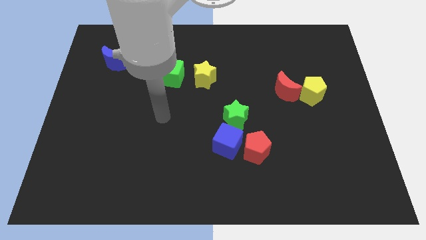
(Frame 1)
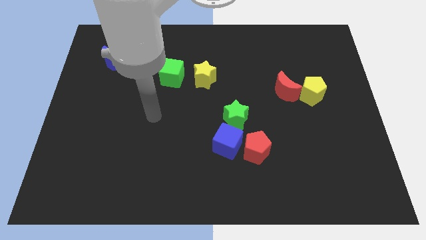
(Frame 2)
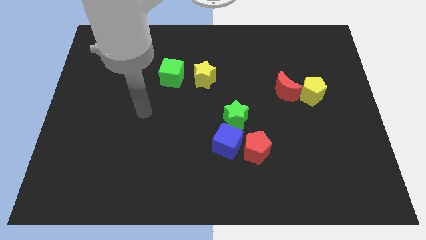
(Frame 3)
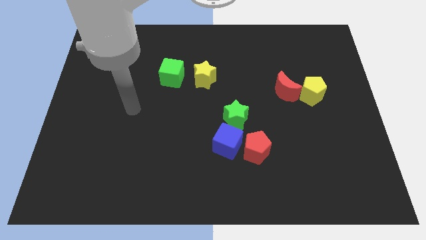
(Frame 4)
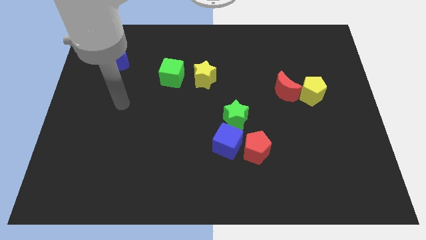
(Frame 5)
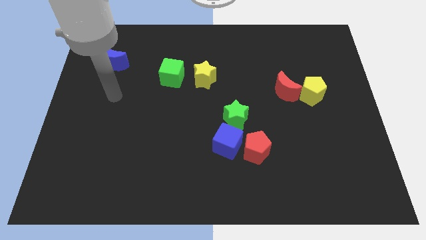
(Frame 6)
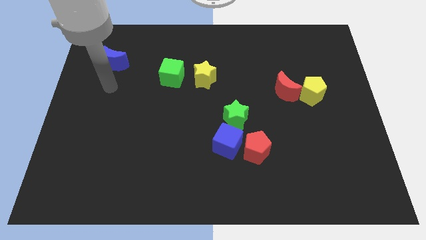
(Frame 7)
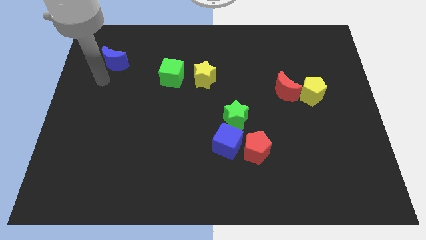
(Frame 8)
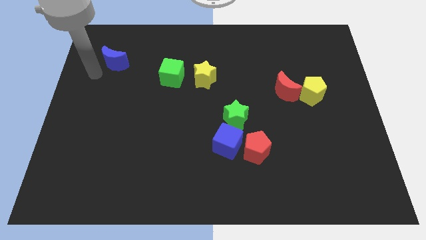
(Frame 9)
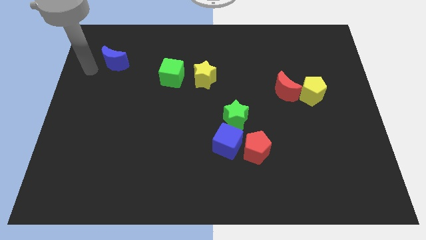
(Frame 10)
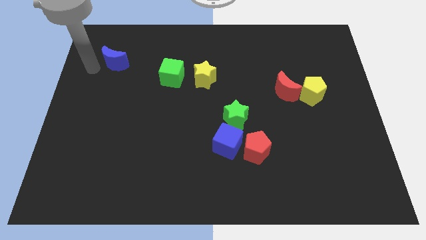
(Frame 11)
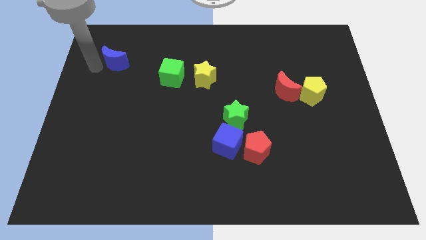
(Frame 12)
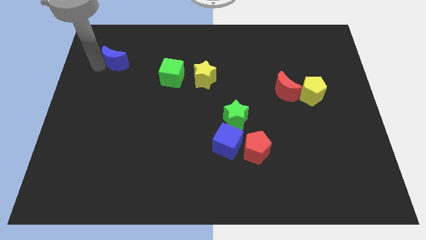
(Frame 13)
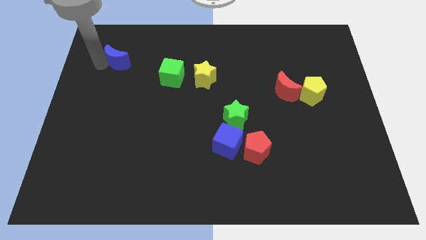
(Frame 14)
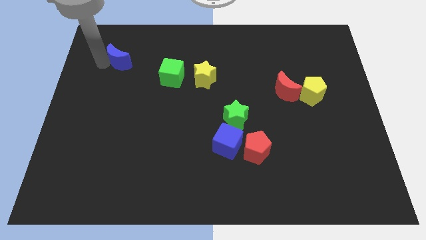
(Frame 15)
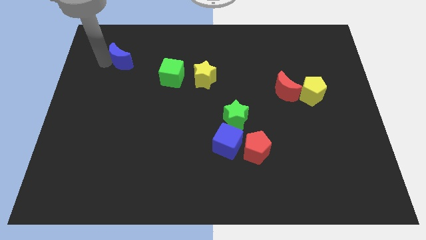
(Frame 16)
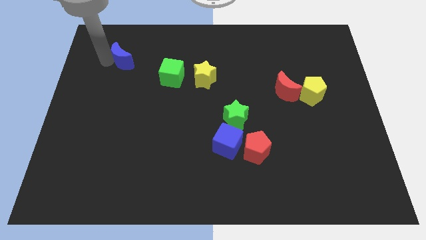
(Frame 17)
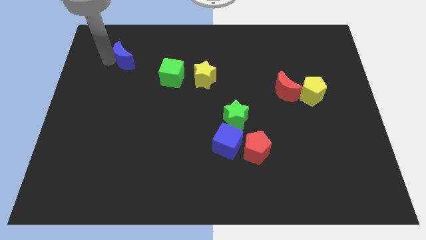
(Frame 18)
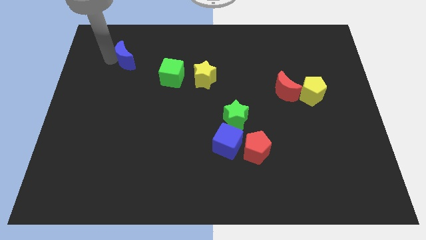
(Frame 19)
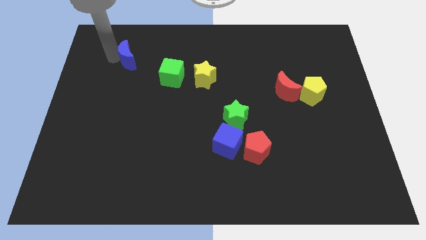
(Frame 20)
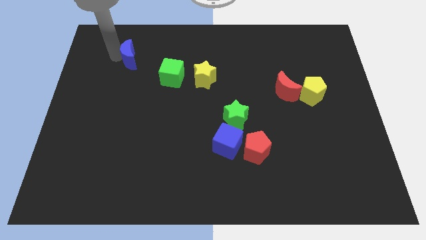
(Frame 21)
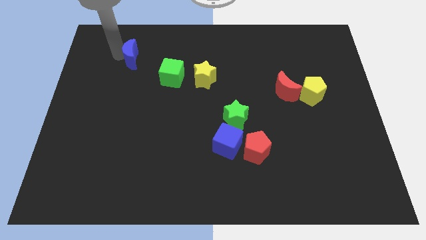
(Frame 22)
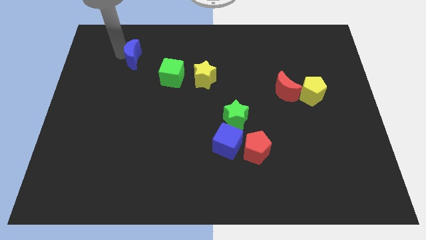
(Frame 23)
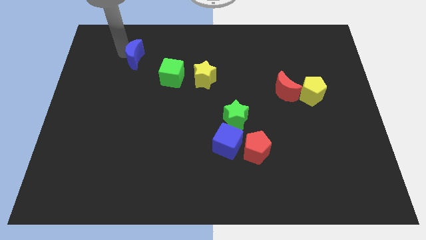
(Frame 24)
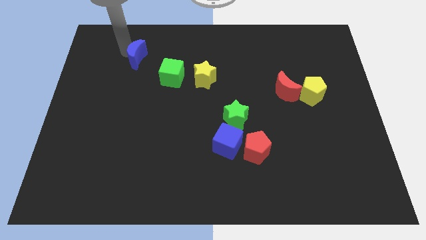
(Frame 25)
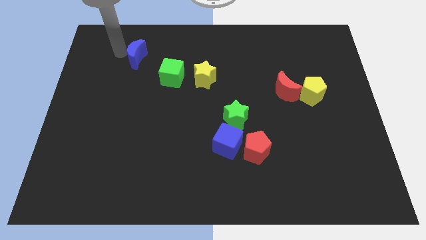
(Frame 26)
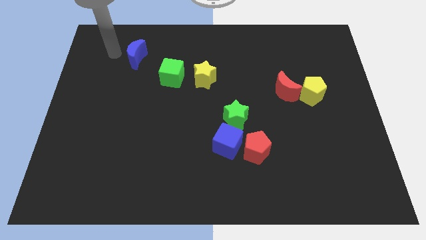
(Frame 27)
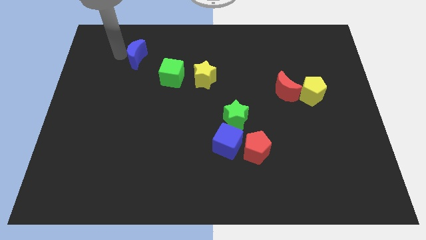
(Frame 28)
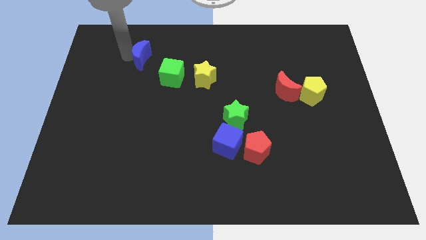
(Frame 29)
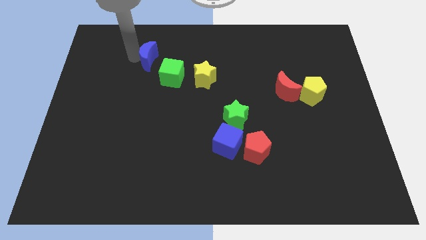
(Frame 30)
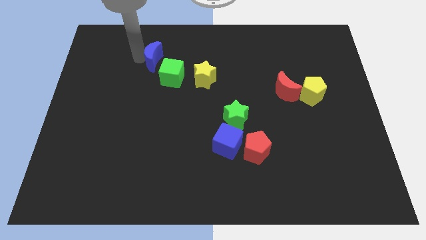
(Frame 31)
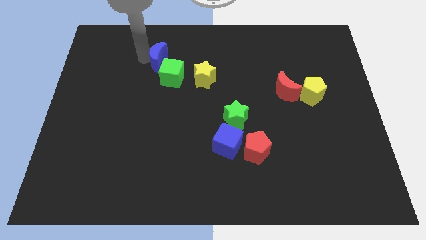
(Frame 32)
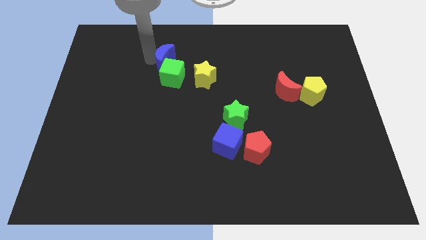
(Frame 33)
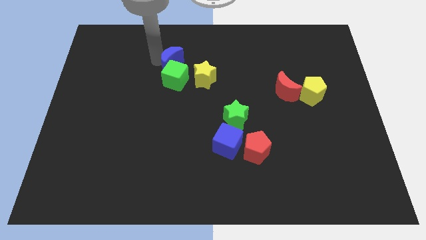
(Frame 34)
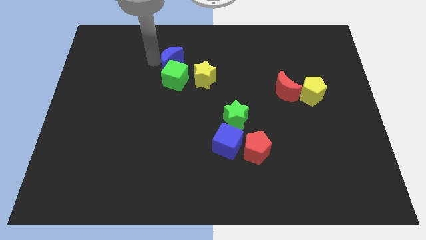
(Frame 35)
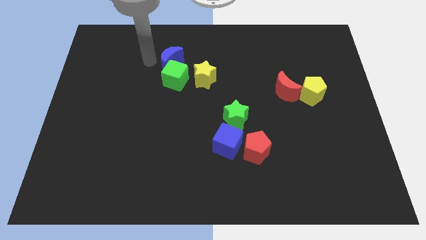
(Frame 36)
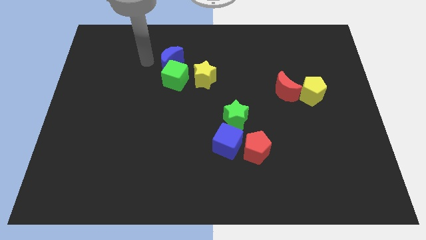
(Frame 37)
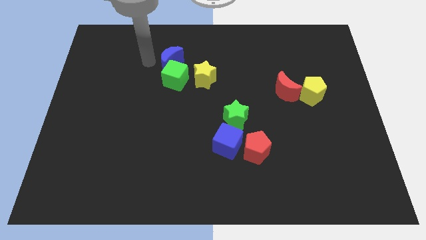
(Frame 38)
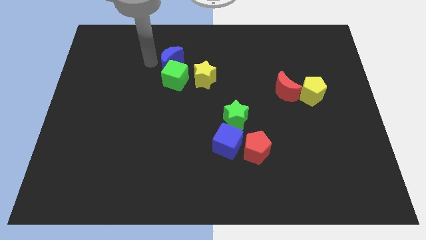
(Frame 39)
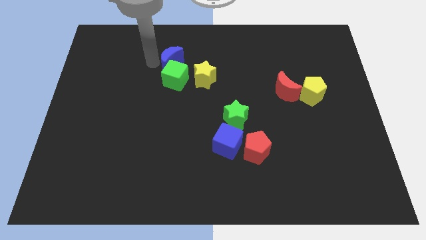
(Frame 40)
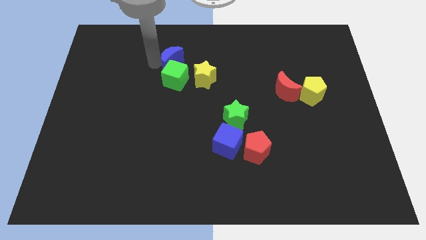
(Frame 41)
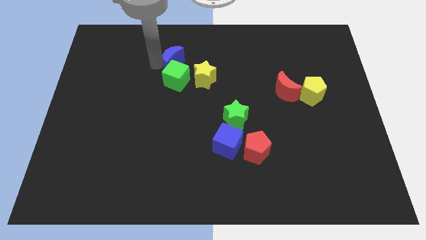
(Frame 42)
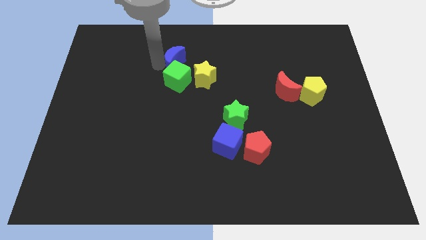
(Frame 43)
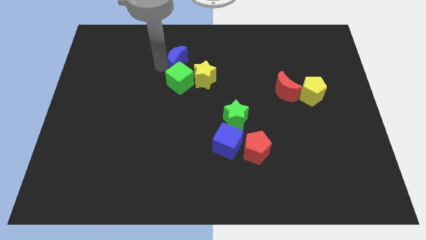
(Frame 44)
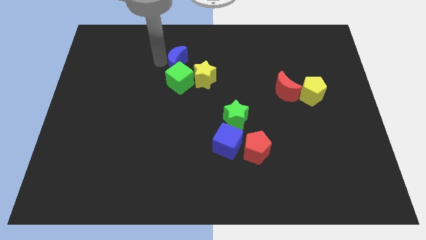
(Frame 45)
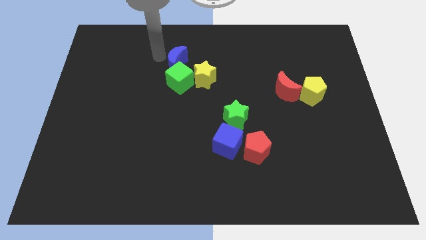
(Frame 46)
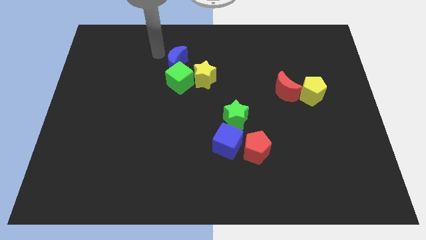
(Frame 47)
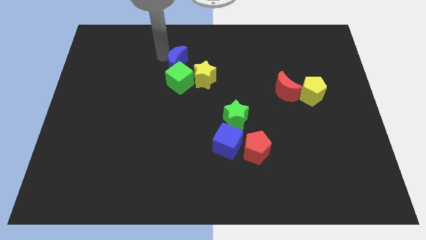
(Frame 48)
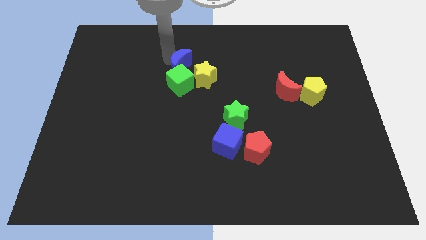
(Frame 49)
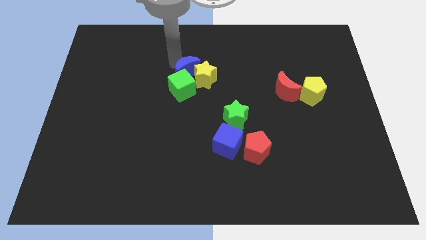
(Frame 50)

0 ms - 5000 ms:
put the blue moon close to the yellow star

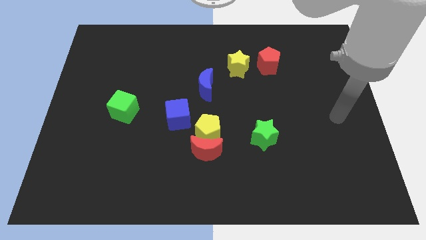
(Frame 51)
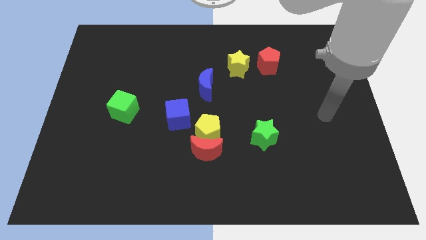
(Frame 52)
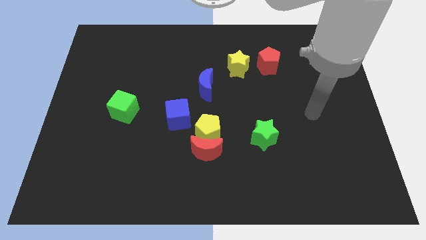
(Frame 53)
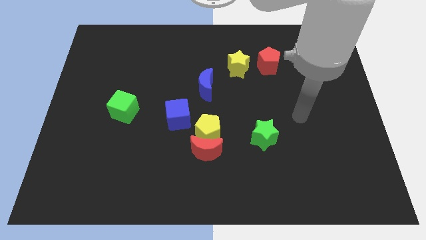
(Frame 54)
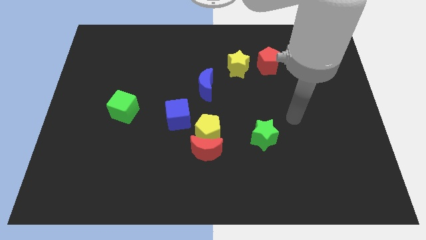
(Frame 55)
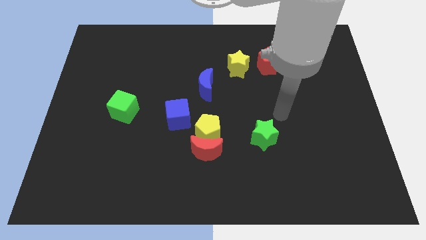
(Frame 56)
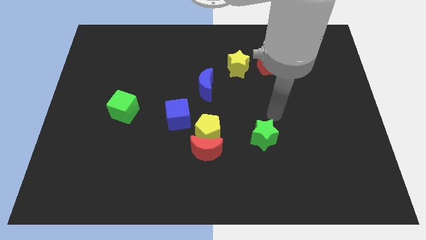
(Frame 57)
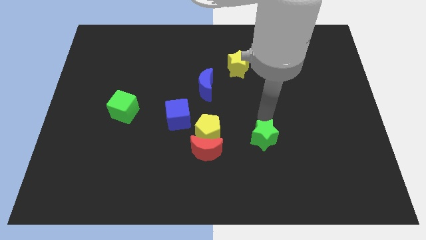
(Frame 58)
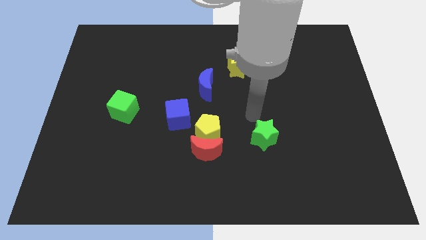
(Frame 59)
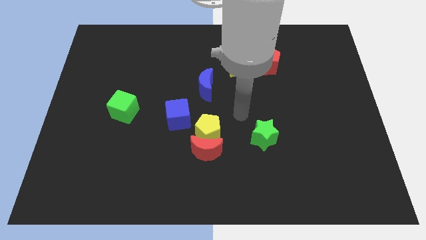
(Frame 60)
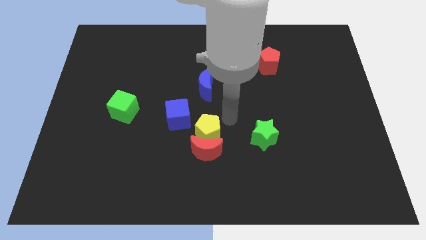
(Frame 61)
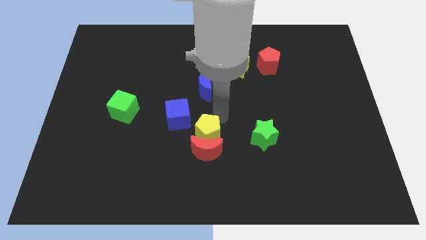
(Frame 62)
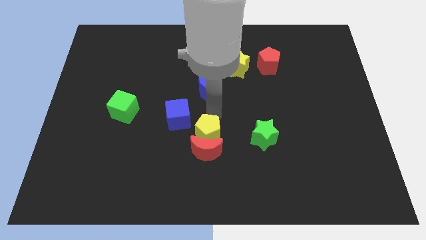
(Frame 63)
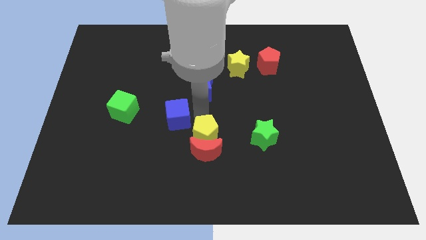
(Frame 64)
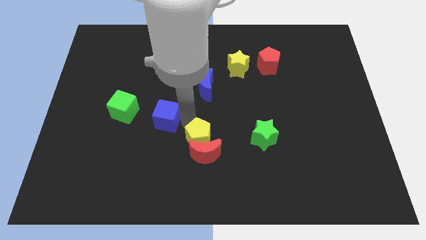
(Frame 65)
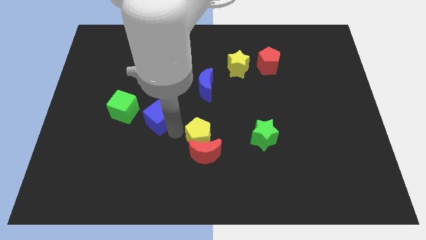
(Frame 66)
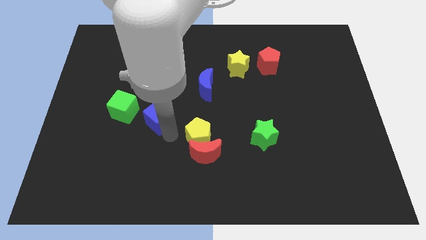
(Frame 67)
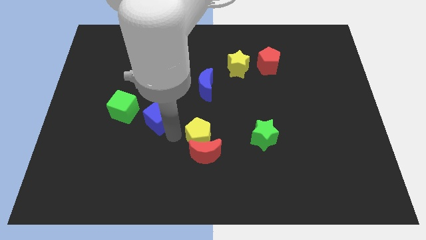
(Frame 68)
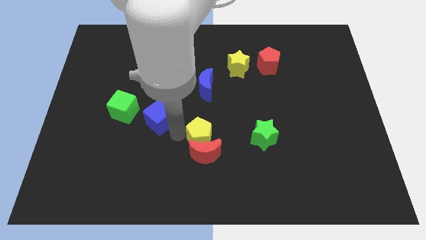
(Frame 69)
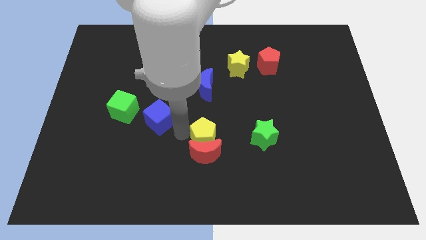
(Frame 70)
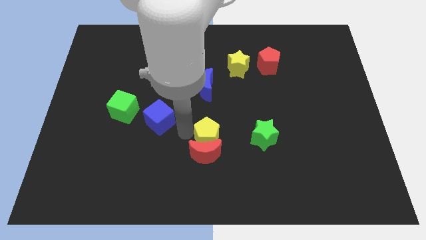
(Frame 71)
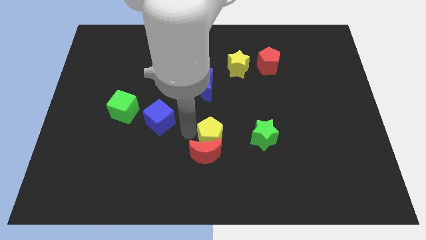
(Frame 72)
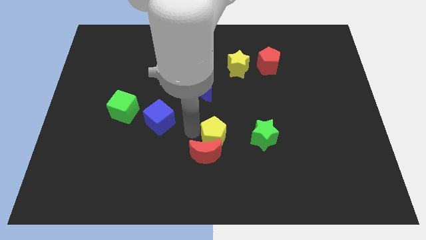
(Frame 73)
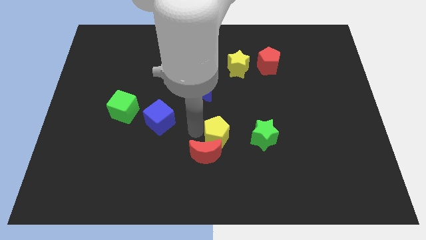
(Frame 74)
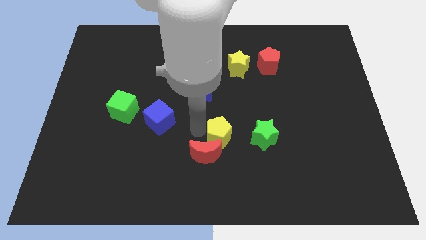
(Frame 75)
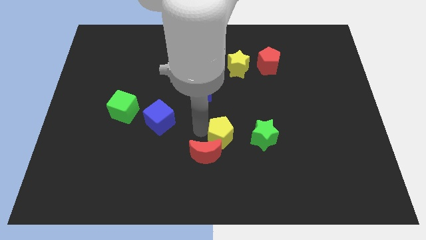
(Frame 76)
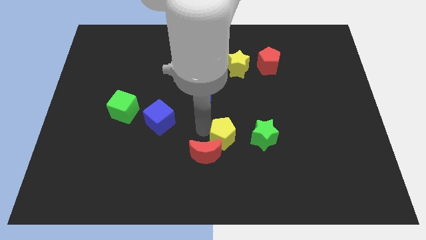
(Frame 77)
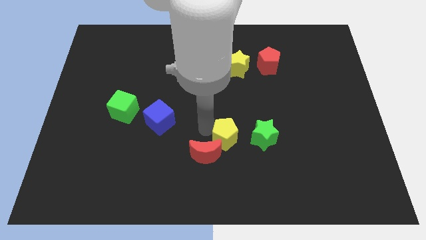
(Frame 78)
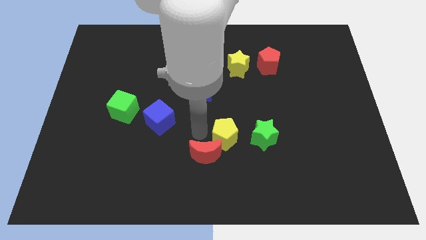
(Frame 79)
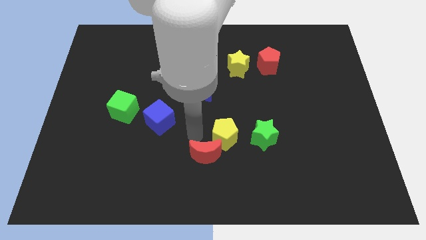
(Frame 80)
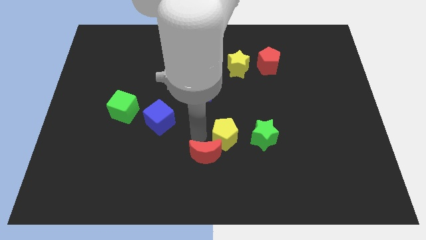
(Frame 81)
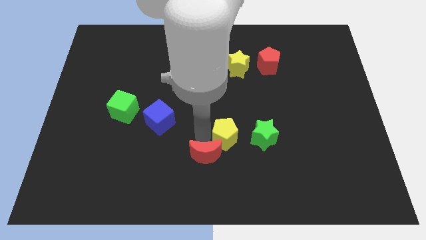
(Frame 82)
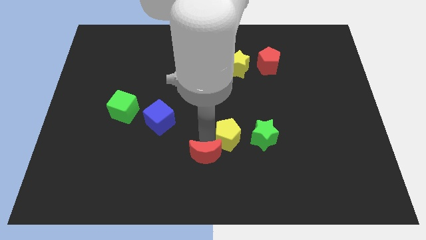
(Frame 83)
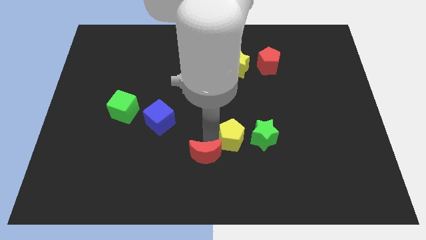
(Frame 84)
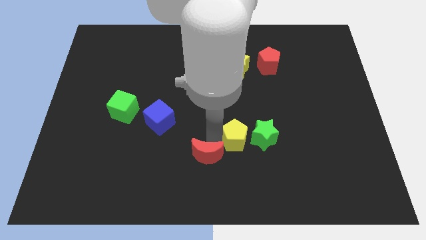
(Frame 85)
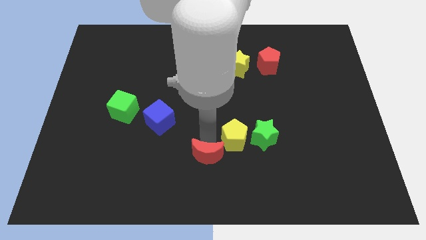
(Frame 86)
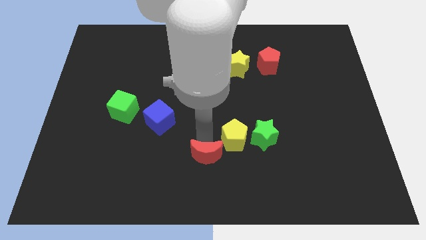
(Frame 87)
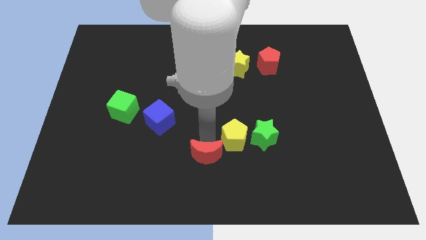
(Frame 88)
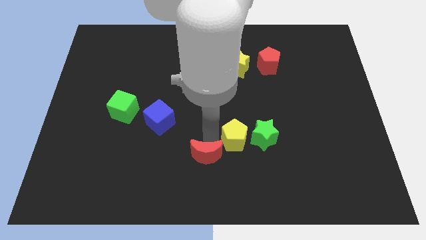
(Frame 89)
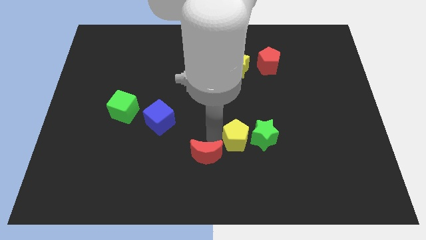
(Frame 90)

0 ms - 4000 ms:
slide the yellow pentagon towards the green star
